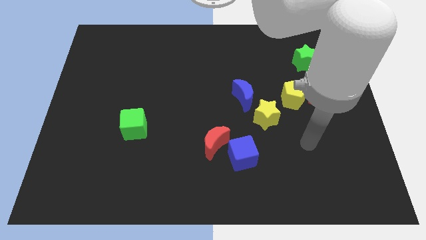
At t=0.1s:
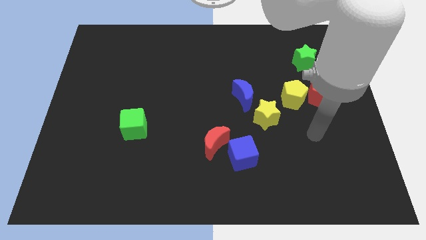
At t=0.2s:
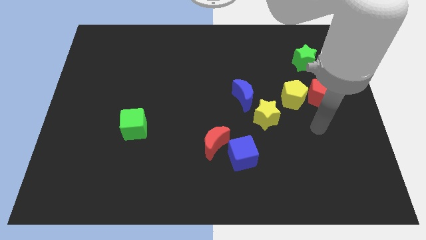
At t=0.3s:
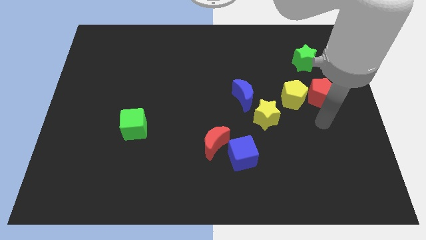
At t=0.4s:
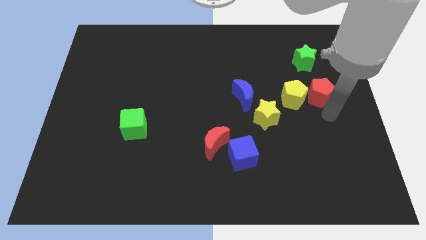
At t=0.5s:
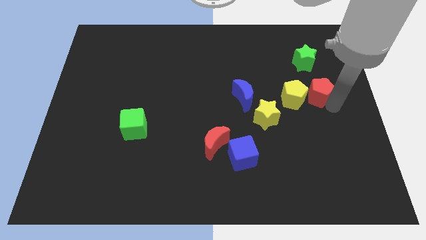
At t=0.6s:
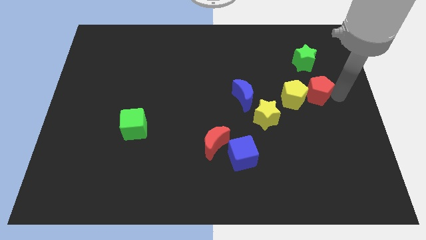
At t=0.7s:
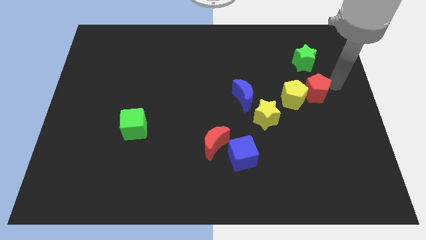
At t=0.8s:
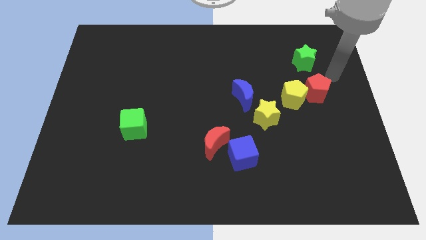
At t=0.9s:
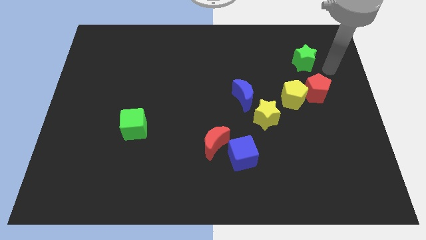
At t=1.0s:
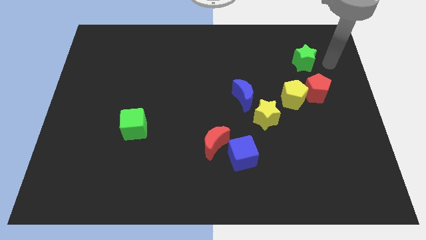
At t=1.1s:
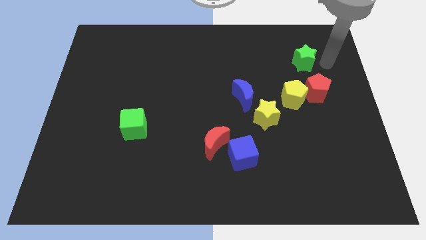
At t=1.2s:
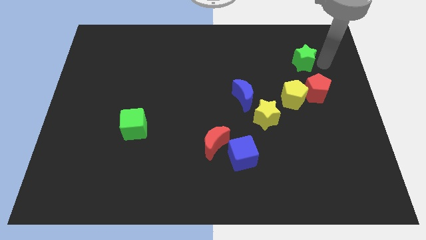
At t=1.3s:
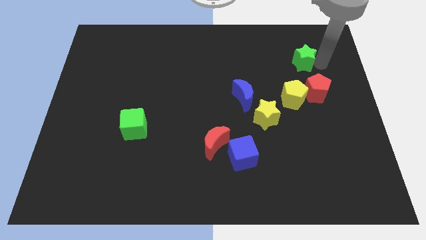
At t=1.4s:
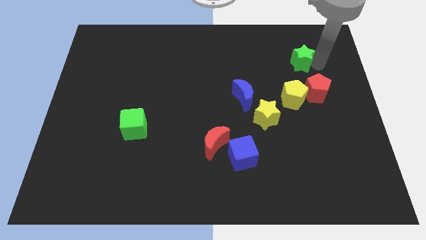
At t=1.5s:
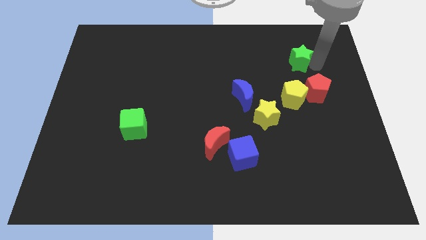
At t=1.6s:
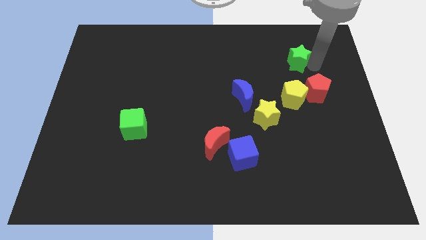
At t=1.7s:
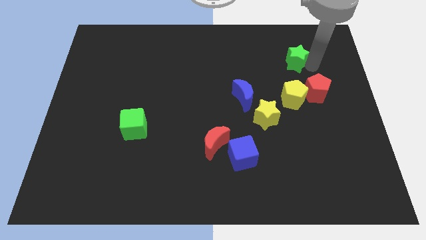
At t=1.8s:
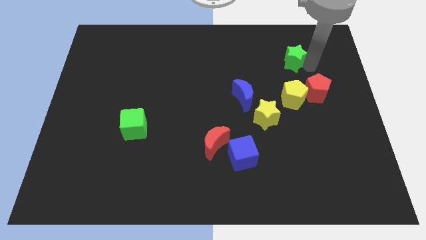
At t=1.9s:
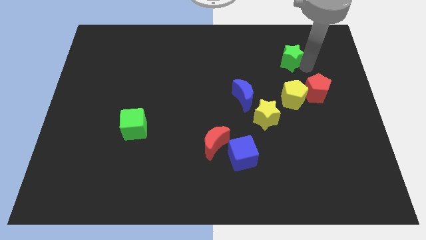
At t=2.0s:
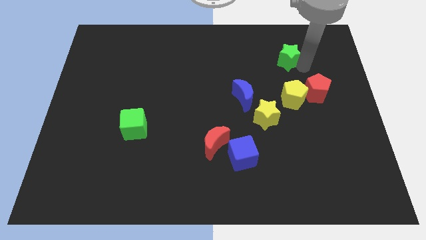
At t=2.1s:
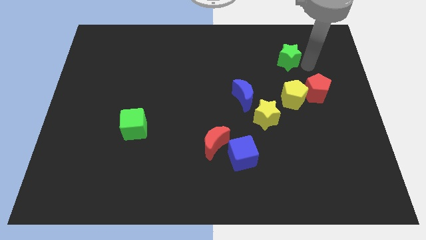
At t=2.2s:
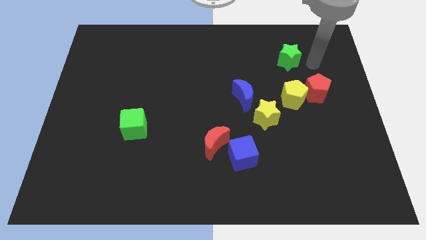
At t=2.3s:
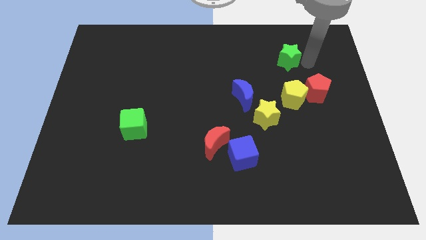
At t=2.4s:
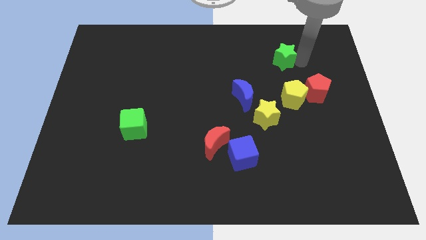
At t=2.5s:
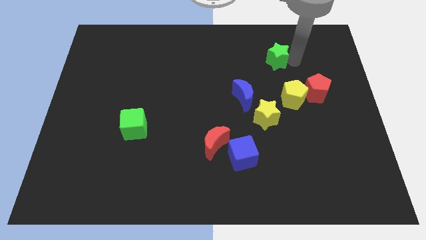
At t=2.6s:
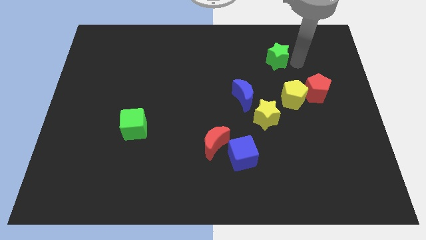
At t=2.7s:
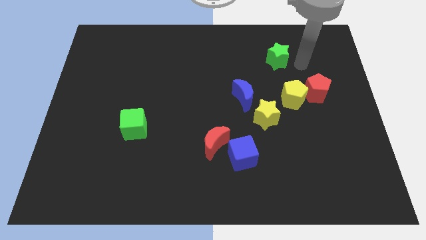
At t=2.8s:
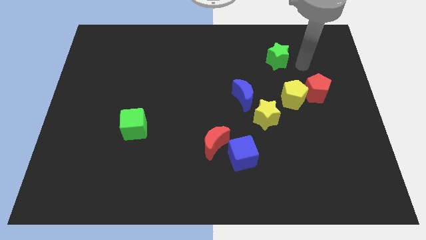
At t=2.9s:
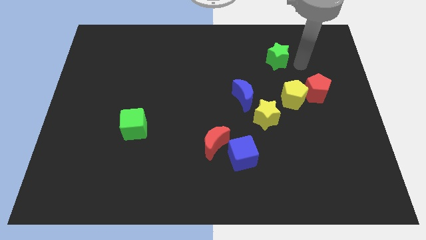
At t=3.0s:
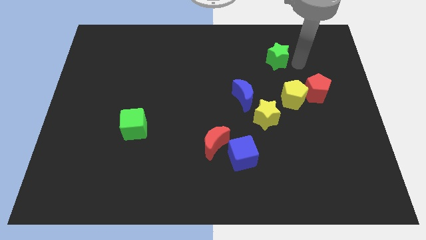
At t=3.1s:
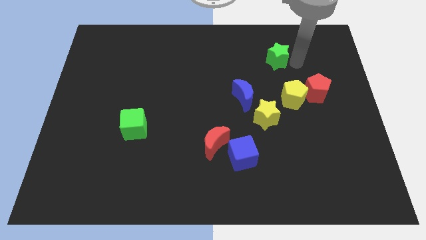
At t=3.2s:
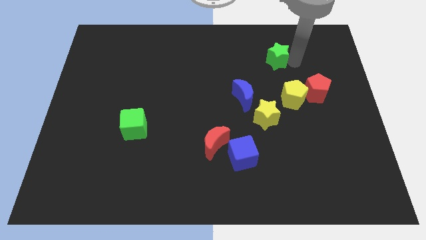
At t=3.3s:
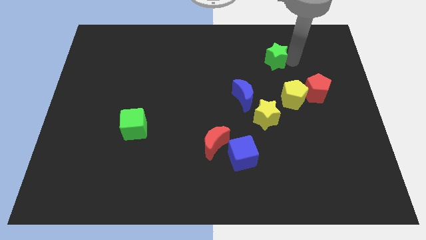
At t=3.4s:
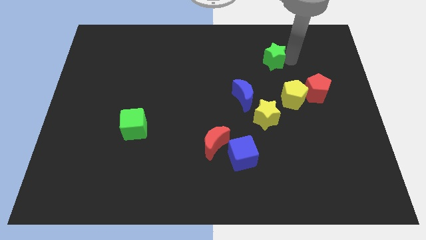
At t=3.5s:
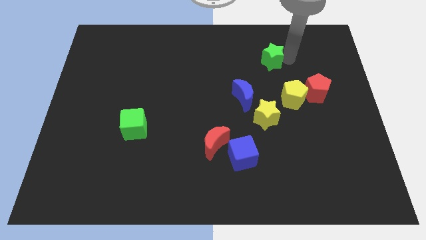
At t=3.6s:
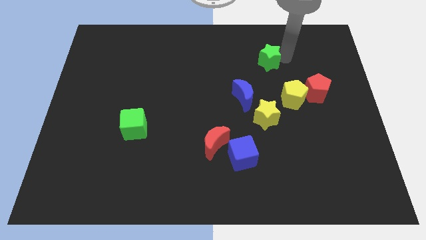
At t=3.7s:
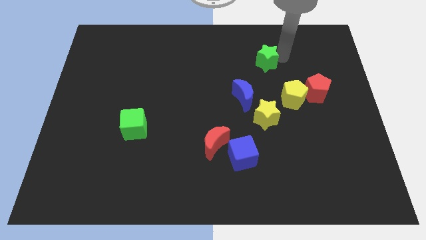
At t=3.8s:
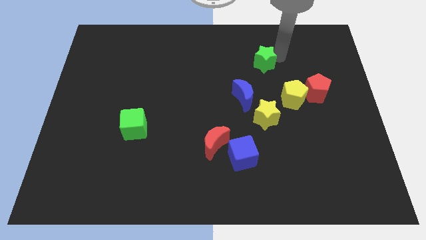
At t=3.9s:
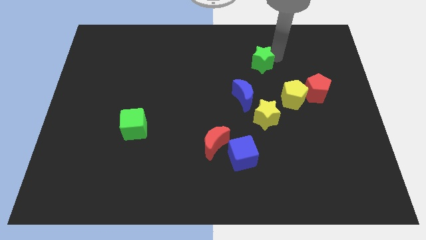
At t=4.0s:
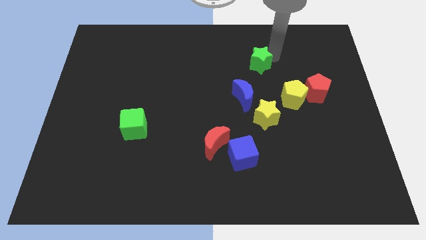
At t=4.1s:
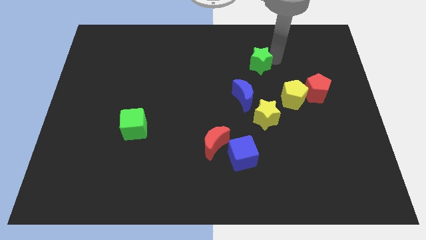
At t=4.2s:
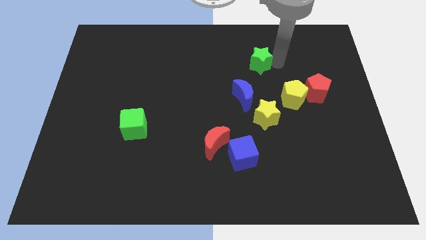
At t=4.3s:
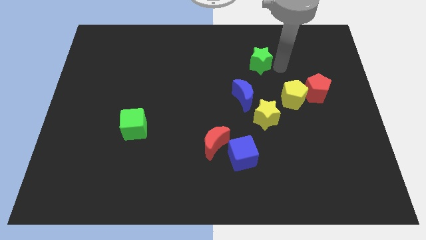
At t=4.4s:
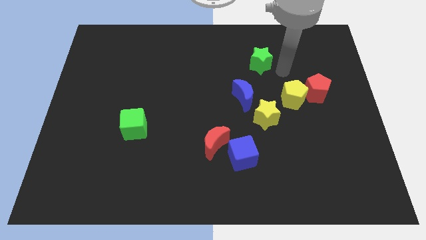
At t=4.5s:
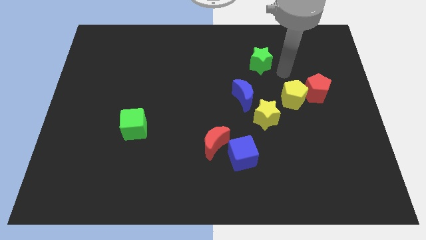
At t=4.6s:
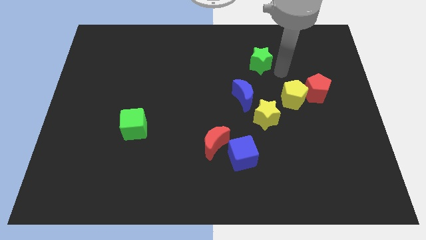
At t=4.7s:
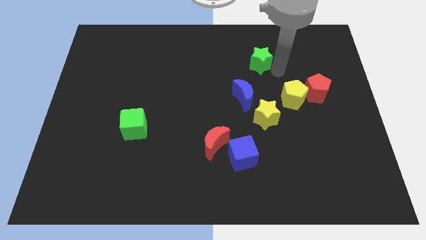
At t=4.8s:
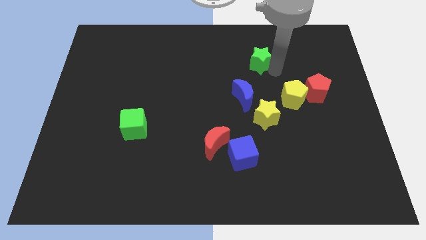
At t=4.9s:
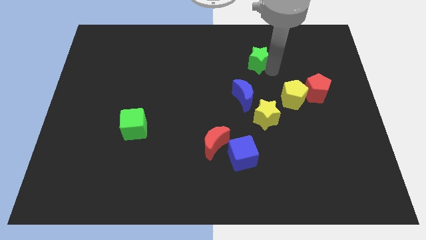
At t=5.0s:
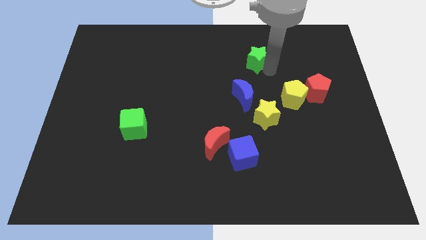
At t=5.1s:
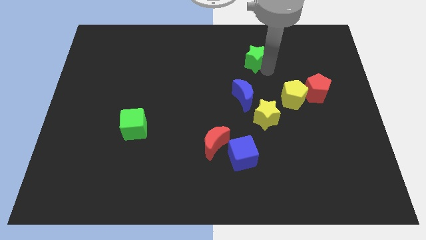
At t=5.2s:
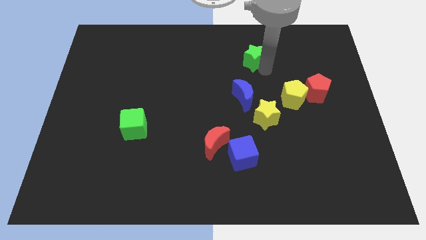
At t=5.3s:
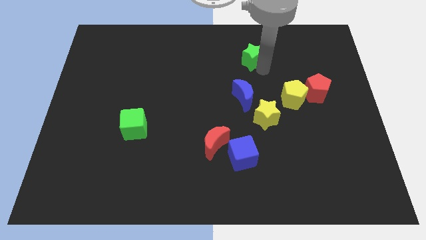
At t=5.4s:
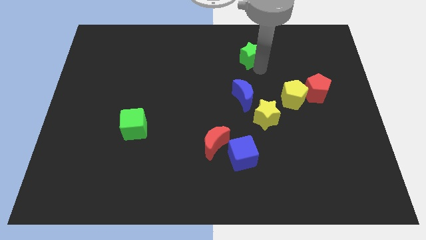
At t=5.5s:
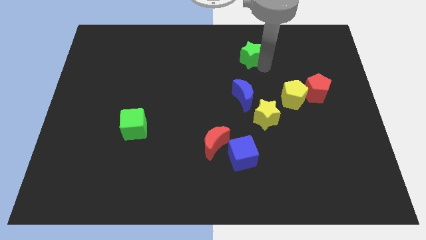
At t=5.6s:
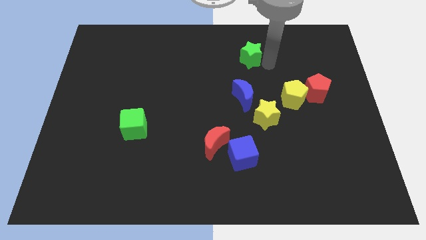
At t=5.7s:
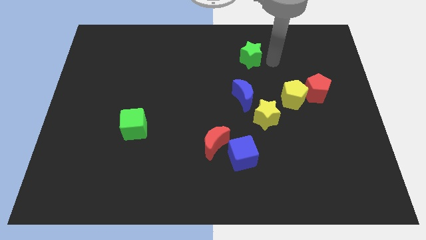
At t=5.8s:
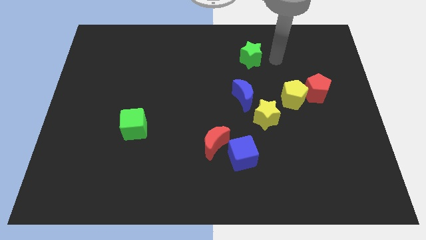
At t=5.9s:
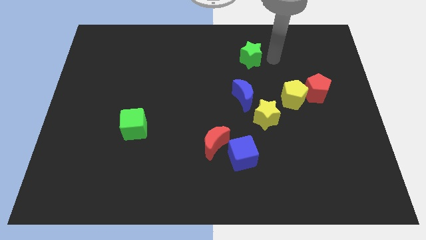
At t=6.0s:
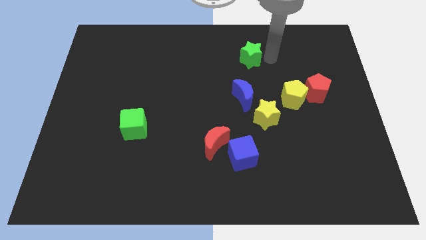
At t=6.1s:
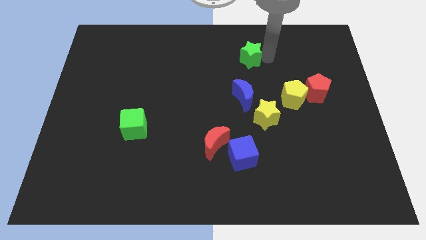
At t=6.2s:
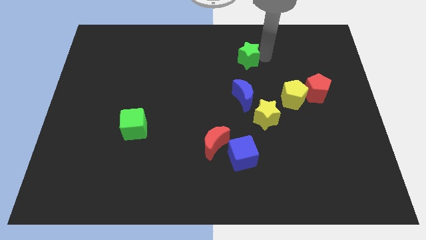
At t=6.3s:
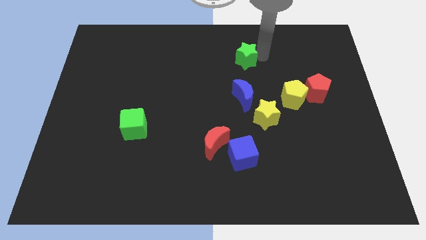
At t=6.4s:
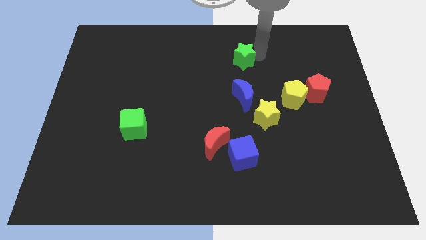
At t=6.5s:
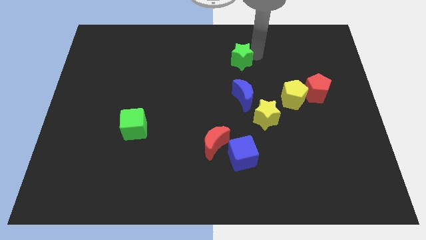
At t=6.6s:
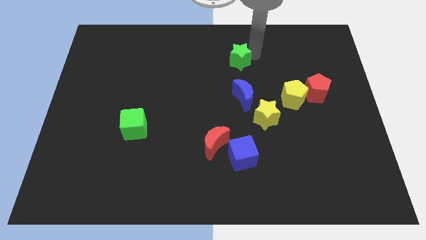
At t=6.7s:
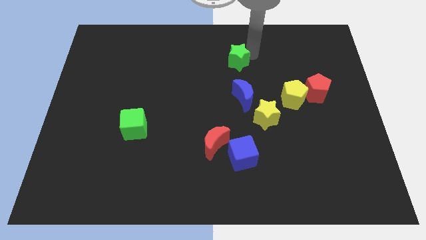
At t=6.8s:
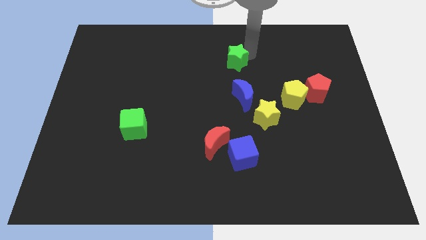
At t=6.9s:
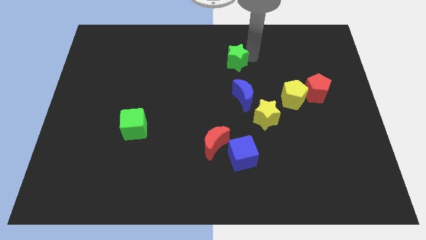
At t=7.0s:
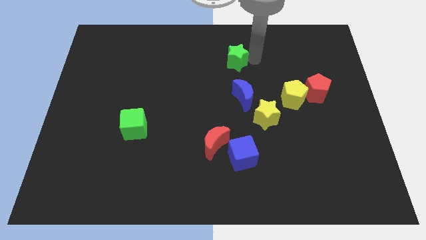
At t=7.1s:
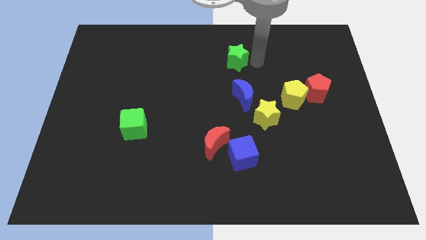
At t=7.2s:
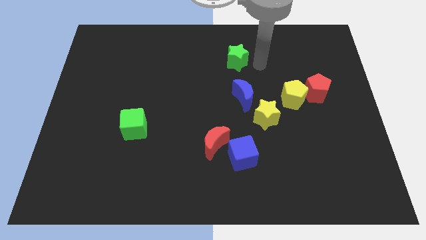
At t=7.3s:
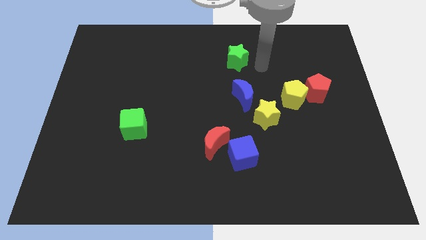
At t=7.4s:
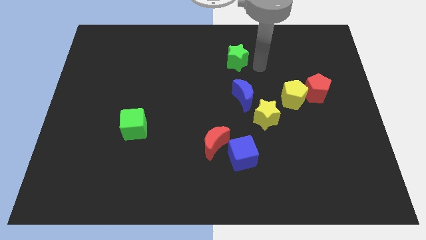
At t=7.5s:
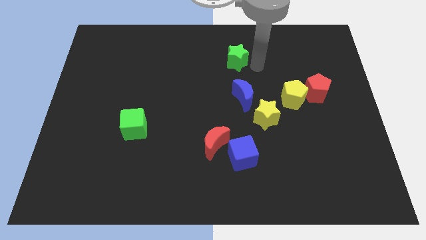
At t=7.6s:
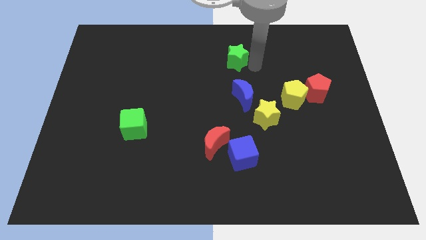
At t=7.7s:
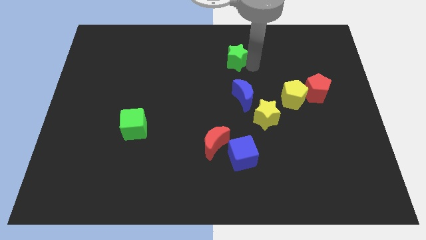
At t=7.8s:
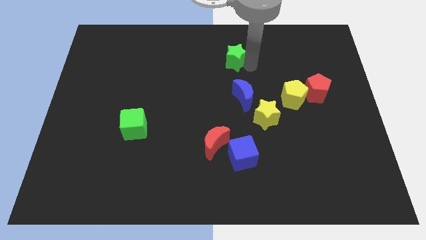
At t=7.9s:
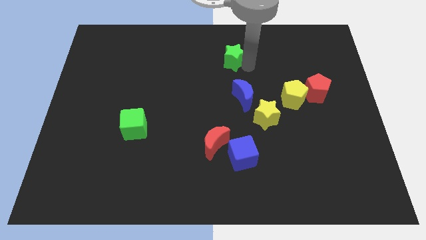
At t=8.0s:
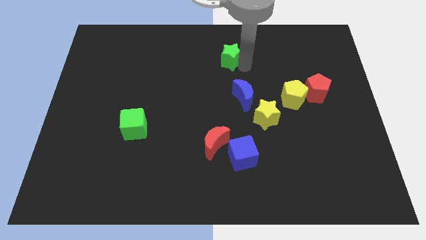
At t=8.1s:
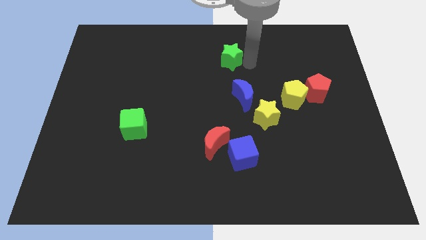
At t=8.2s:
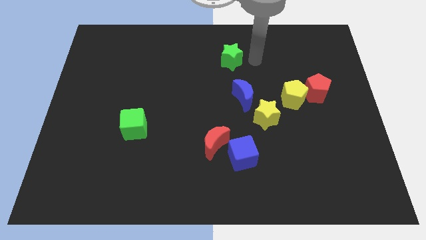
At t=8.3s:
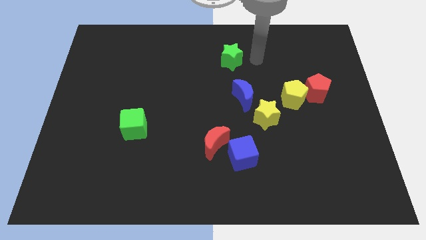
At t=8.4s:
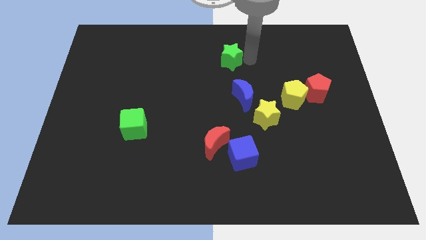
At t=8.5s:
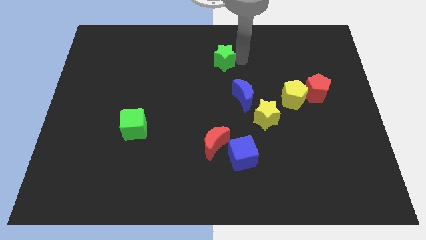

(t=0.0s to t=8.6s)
move the green star left
